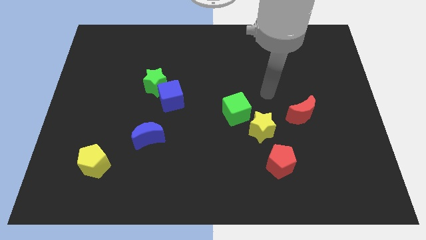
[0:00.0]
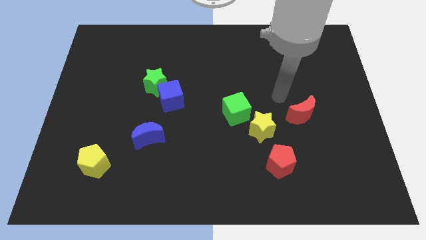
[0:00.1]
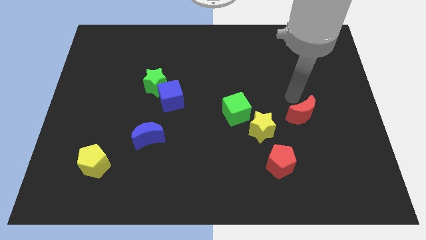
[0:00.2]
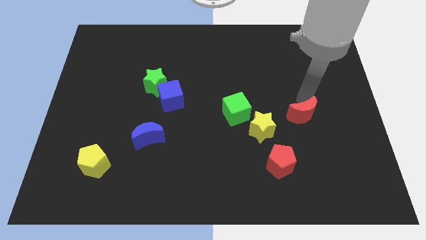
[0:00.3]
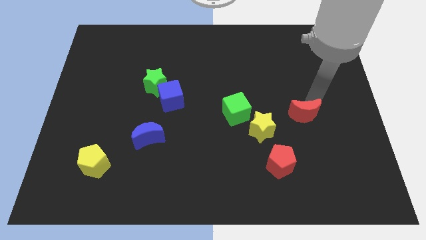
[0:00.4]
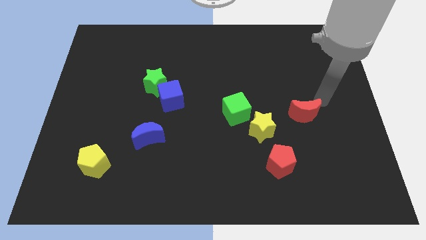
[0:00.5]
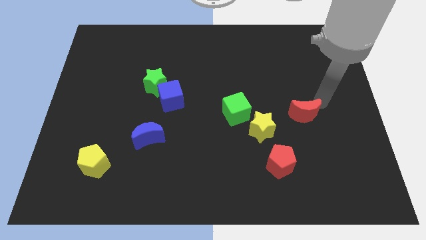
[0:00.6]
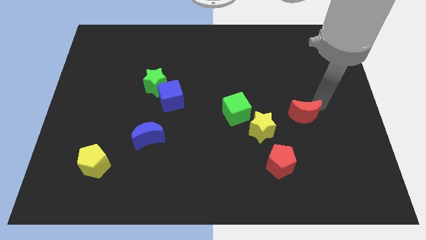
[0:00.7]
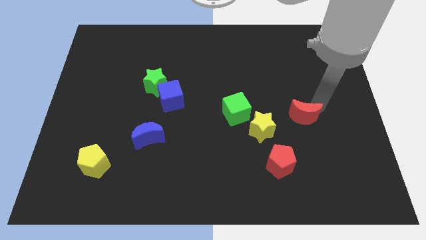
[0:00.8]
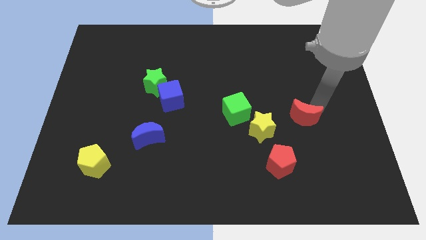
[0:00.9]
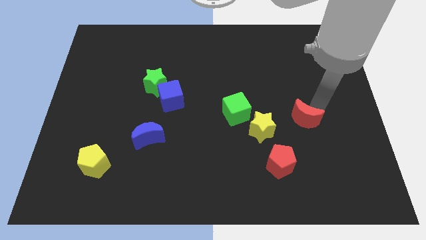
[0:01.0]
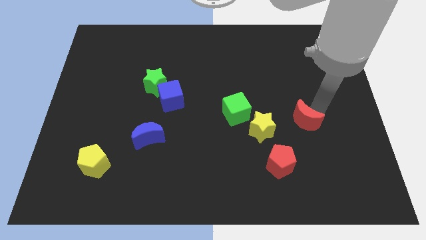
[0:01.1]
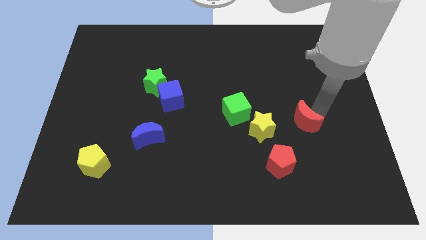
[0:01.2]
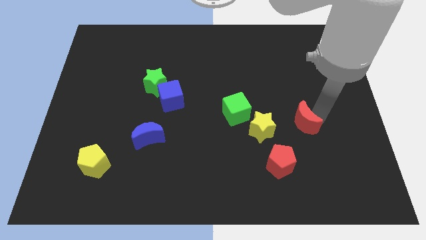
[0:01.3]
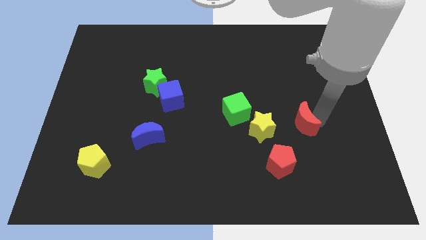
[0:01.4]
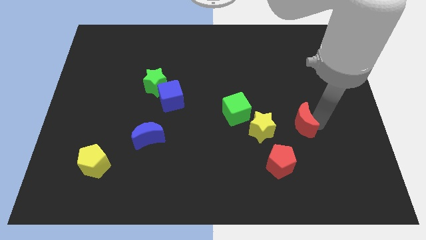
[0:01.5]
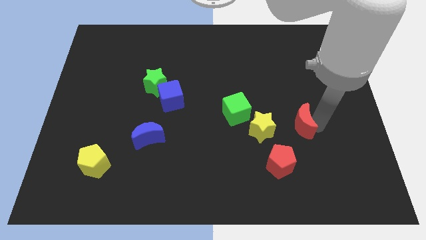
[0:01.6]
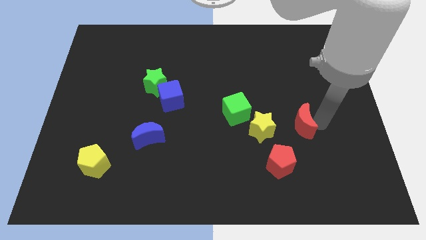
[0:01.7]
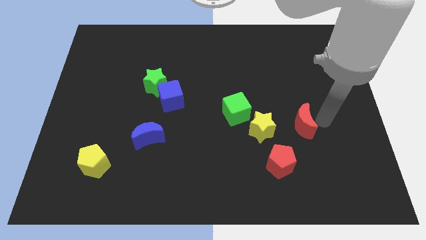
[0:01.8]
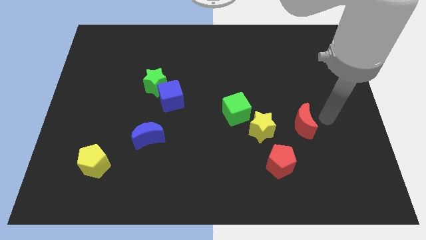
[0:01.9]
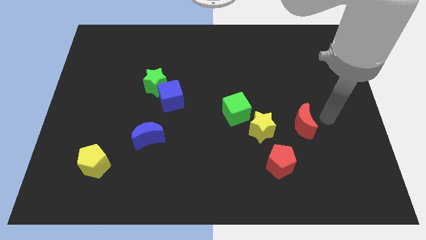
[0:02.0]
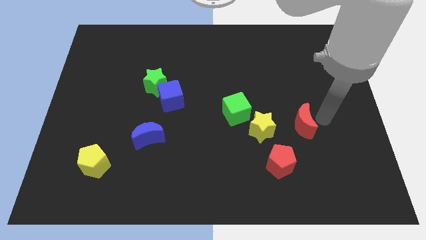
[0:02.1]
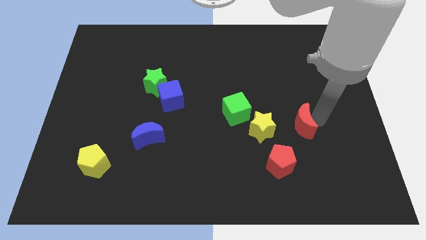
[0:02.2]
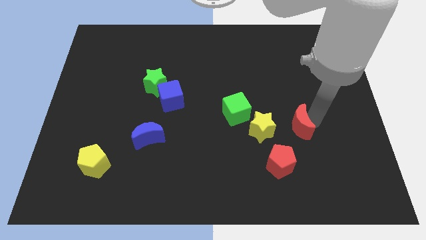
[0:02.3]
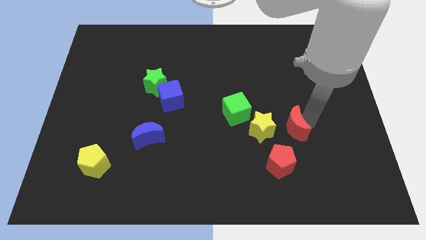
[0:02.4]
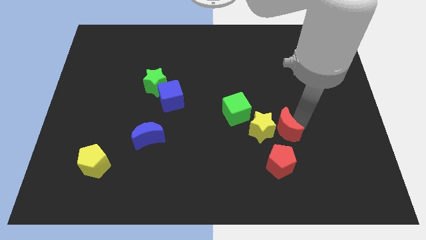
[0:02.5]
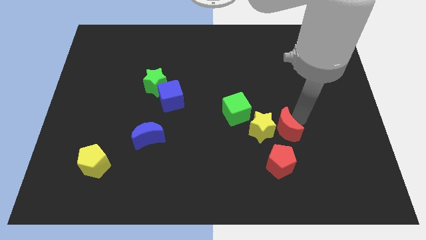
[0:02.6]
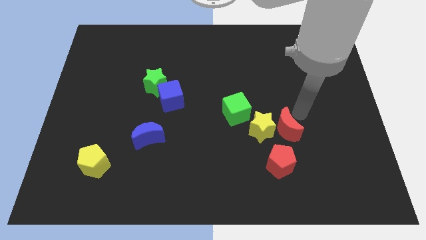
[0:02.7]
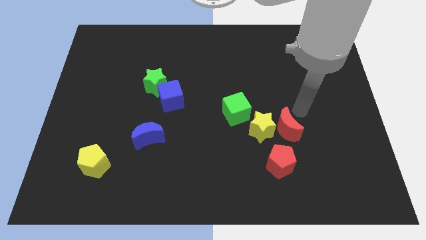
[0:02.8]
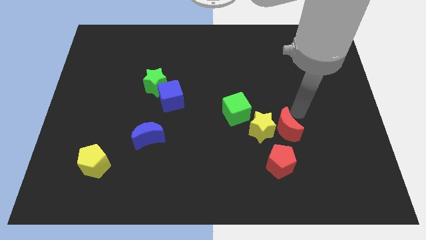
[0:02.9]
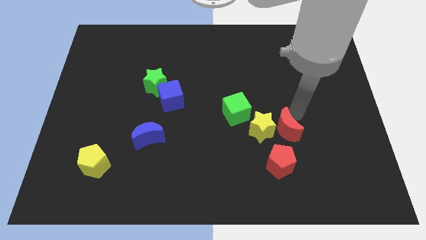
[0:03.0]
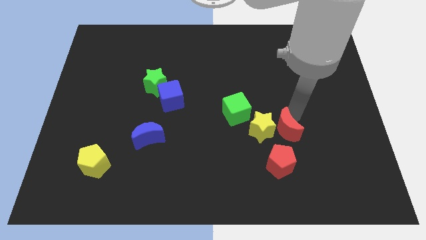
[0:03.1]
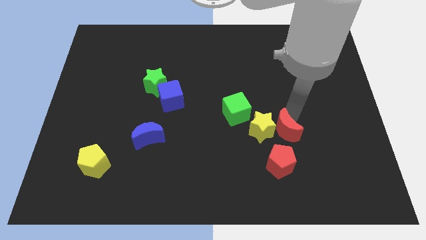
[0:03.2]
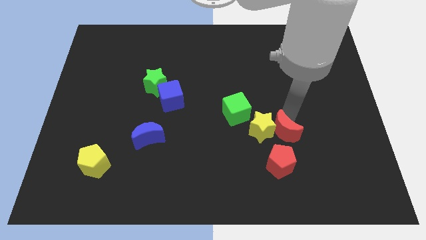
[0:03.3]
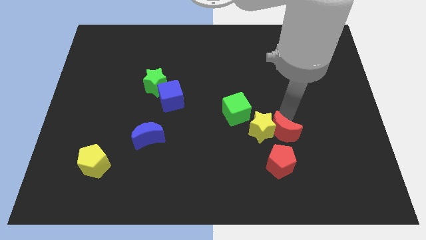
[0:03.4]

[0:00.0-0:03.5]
slightly slide the red moon down and to the left

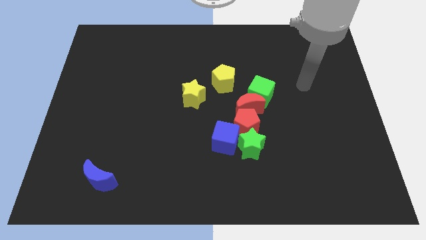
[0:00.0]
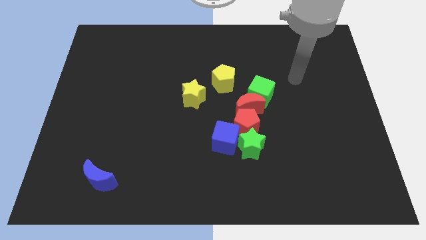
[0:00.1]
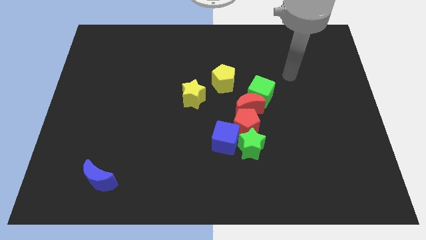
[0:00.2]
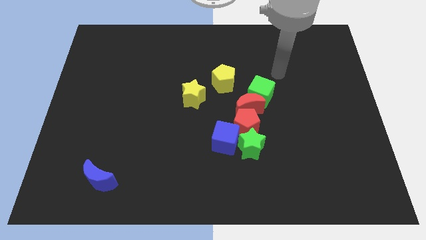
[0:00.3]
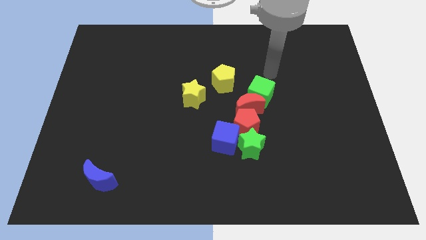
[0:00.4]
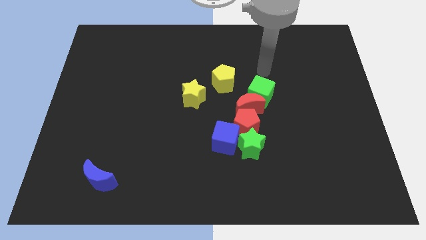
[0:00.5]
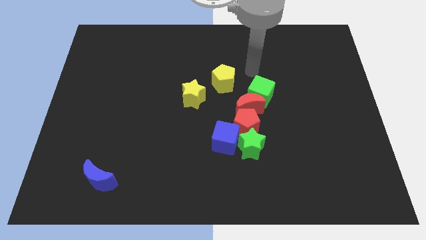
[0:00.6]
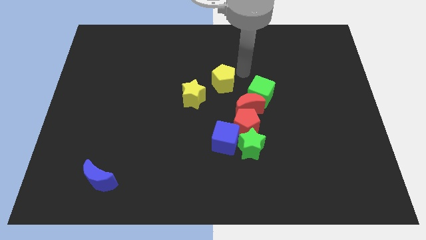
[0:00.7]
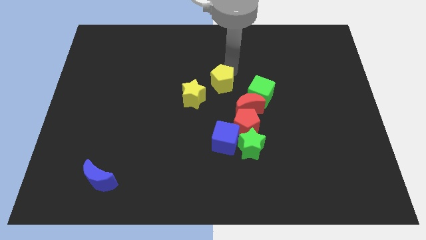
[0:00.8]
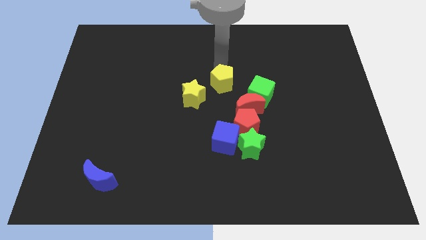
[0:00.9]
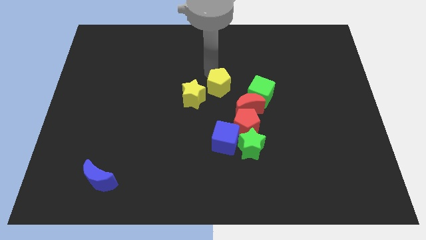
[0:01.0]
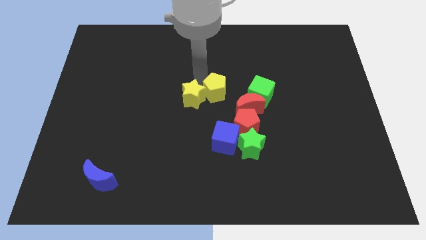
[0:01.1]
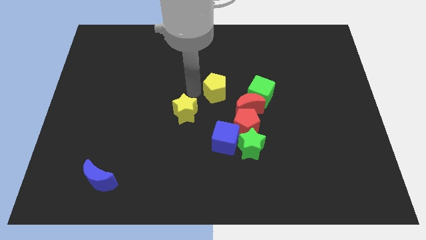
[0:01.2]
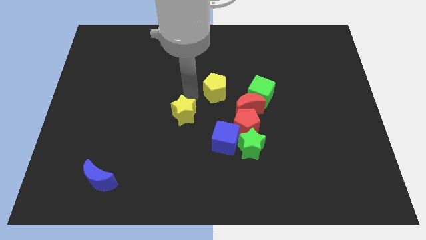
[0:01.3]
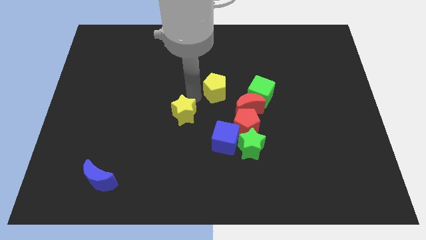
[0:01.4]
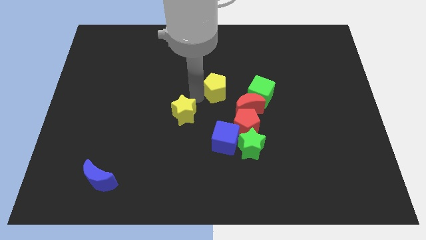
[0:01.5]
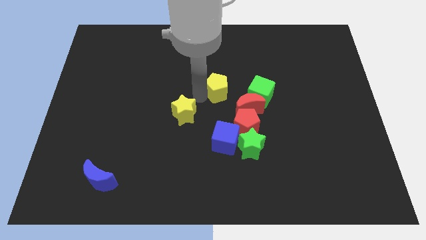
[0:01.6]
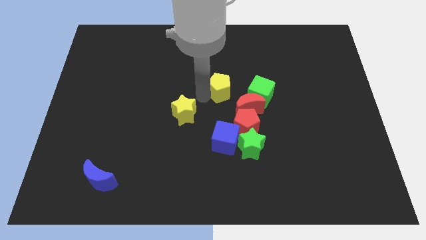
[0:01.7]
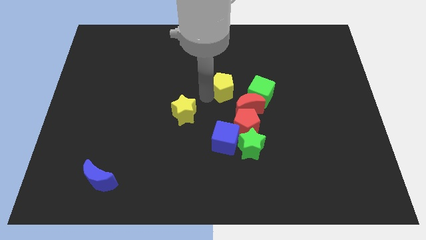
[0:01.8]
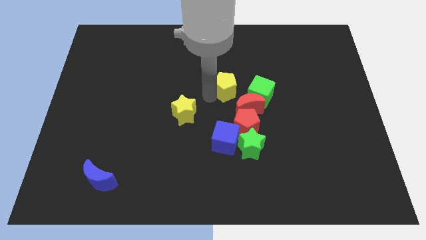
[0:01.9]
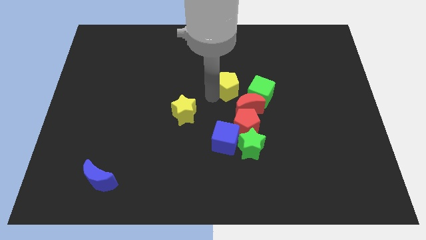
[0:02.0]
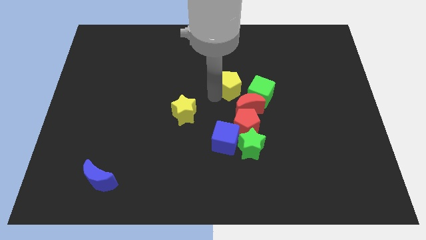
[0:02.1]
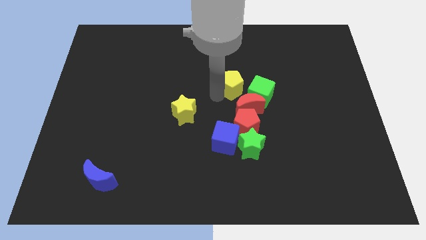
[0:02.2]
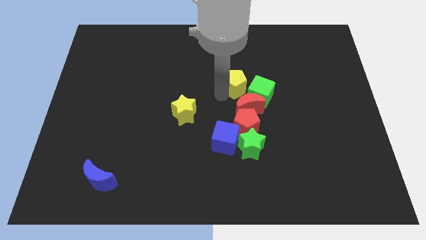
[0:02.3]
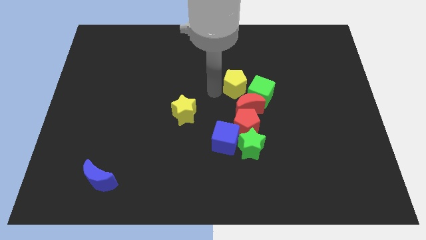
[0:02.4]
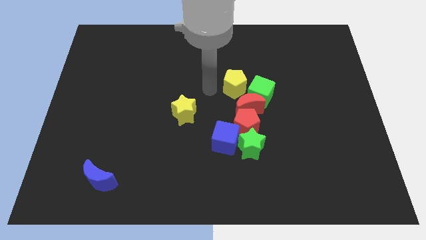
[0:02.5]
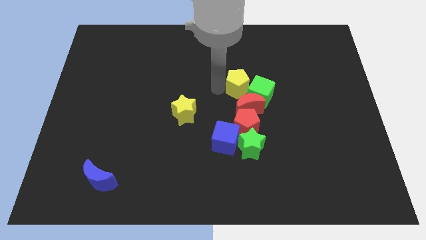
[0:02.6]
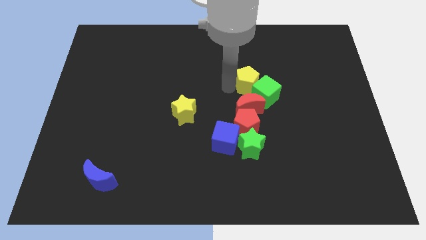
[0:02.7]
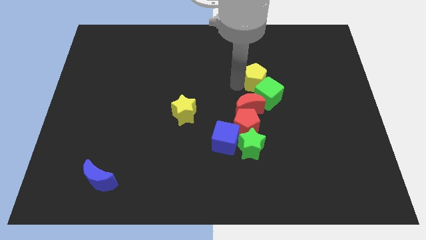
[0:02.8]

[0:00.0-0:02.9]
move the yellow pentagon right a bit

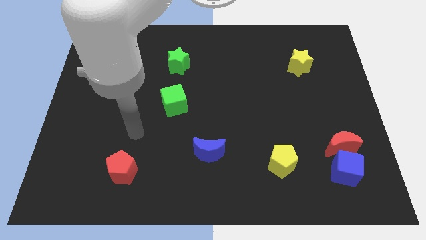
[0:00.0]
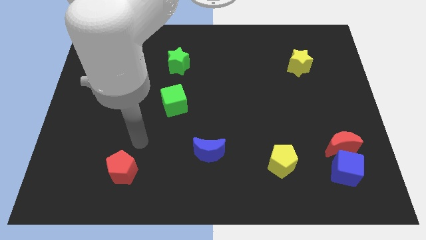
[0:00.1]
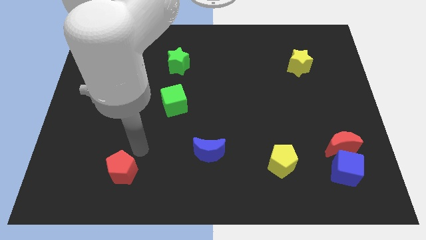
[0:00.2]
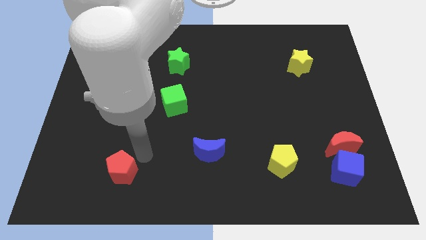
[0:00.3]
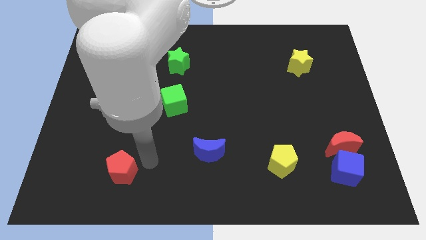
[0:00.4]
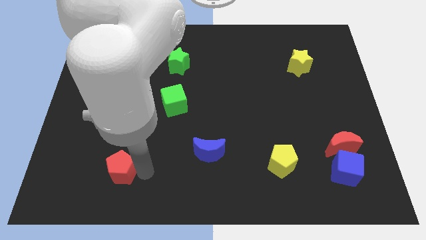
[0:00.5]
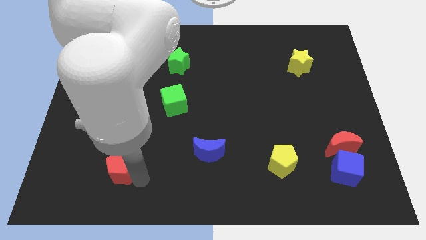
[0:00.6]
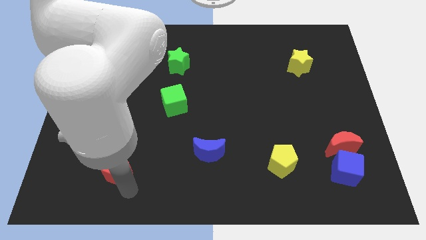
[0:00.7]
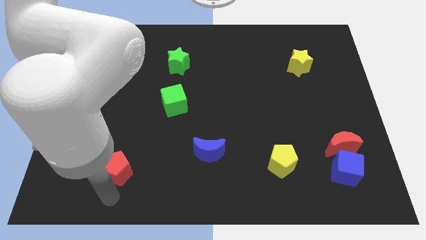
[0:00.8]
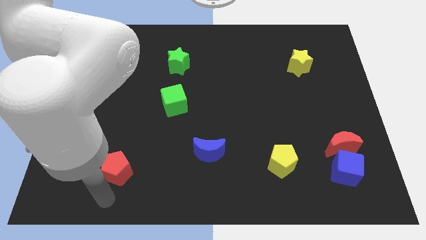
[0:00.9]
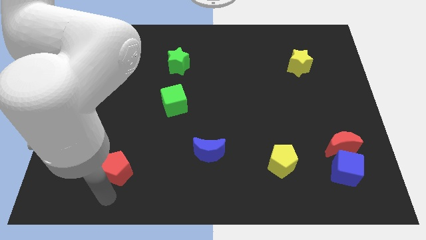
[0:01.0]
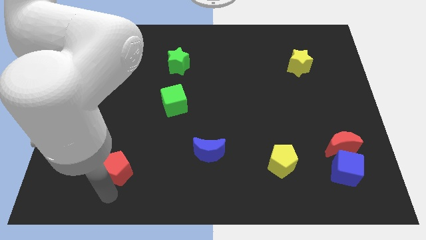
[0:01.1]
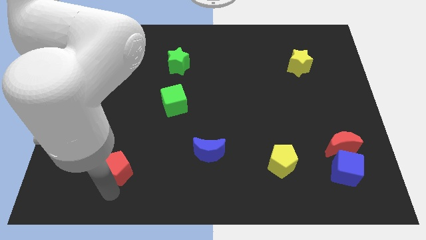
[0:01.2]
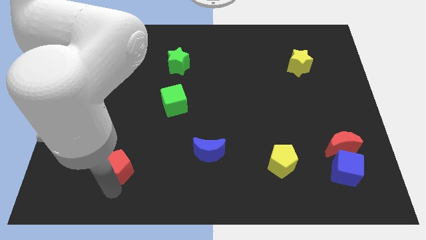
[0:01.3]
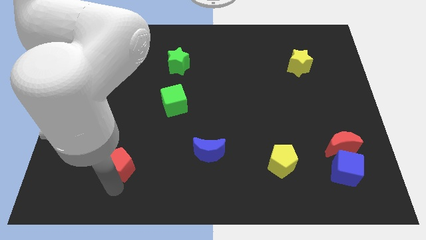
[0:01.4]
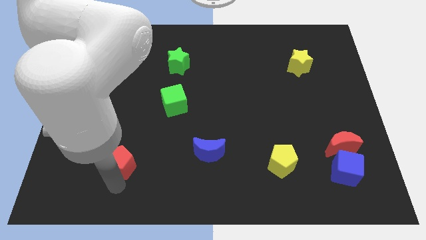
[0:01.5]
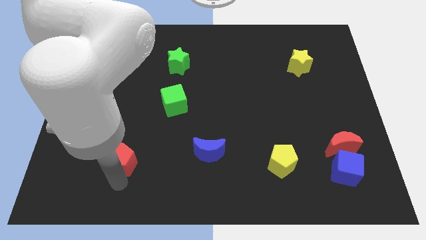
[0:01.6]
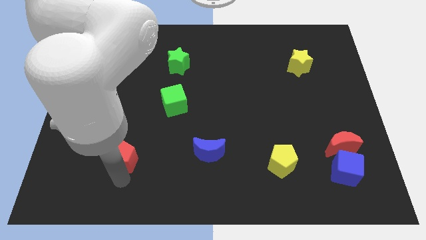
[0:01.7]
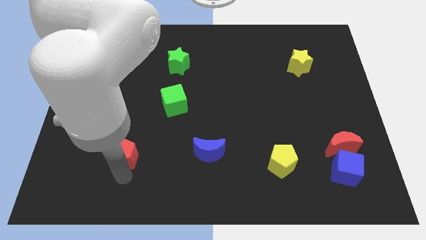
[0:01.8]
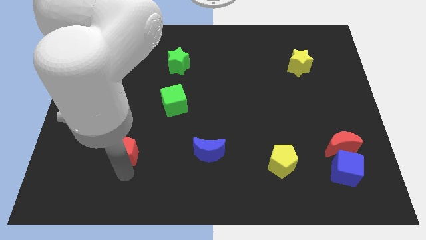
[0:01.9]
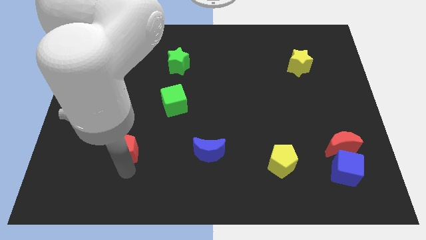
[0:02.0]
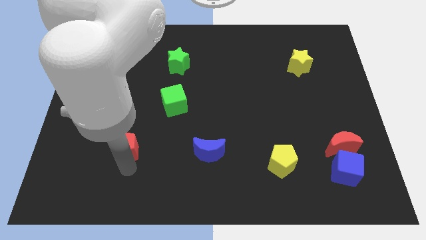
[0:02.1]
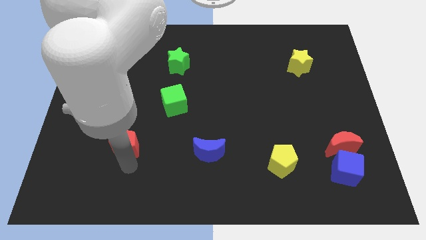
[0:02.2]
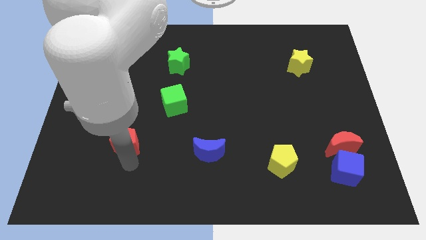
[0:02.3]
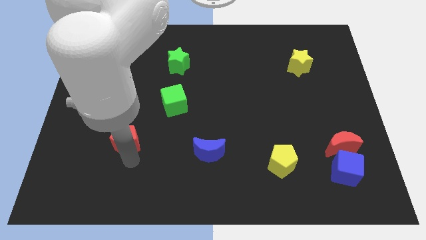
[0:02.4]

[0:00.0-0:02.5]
slightly move the red pentagon up
